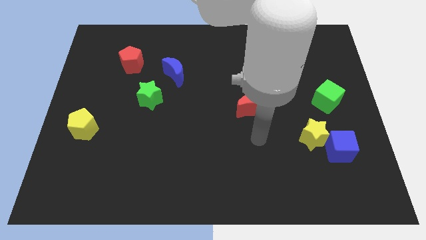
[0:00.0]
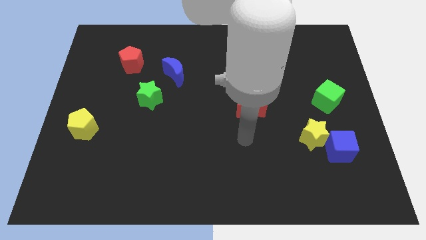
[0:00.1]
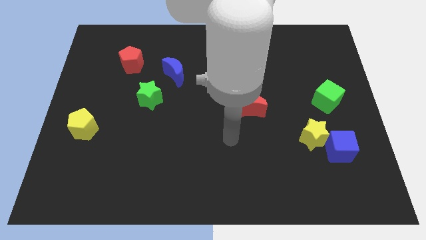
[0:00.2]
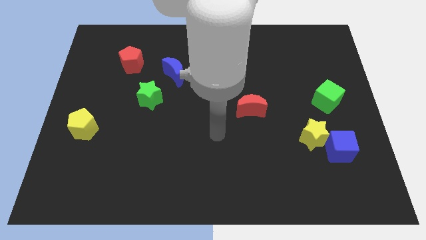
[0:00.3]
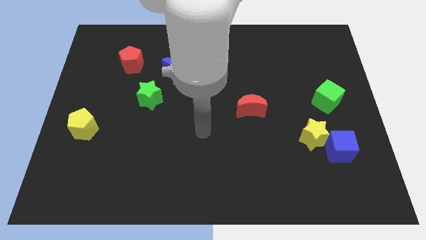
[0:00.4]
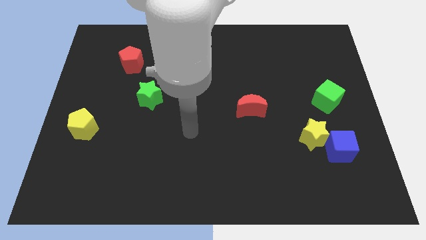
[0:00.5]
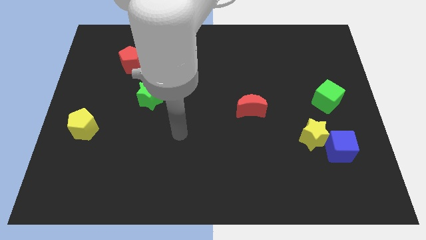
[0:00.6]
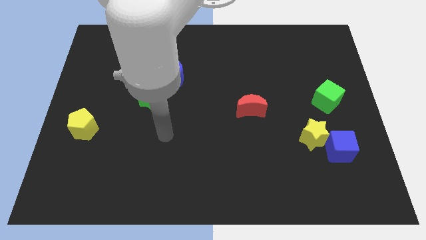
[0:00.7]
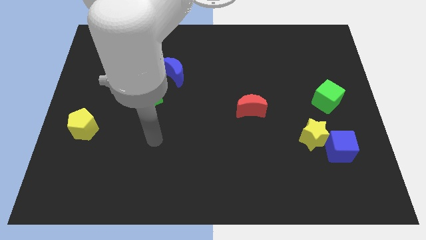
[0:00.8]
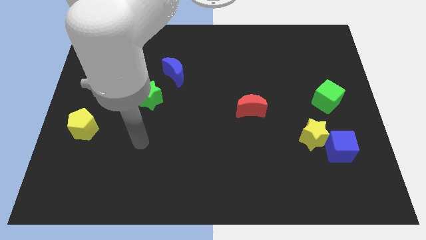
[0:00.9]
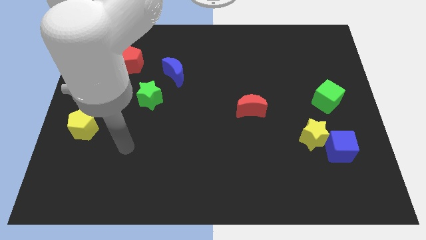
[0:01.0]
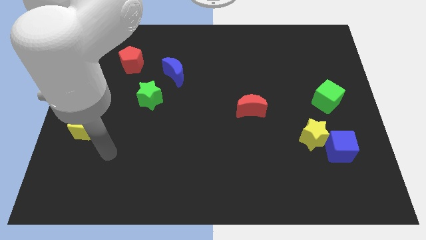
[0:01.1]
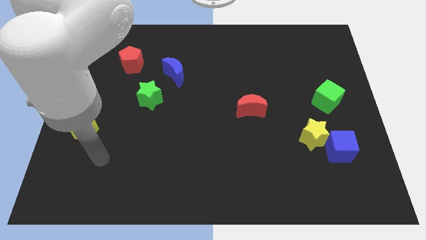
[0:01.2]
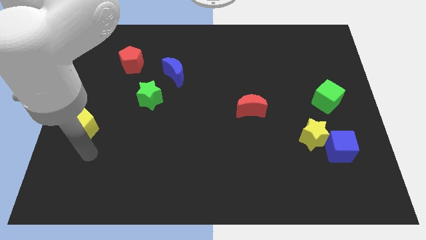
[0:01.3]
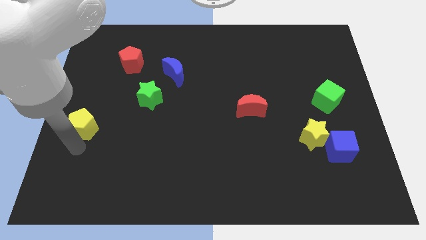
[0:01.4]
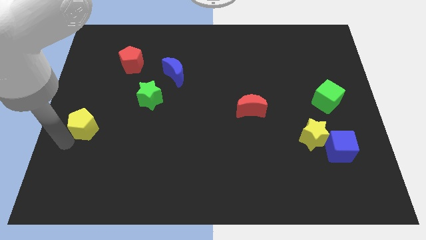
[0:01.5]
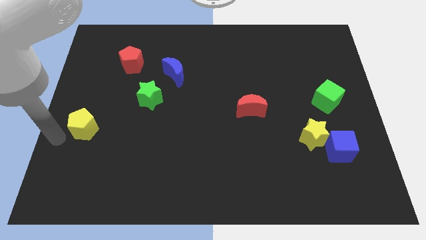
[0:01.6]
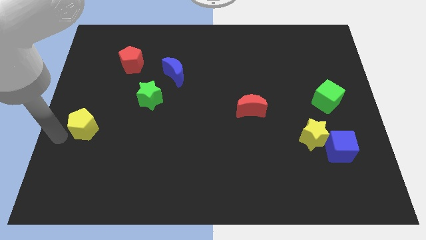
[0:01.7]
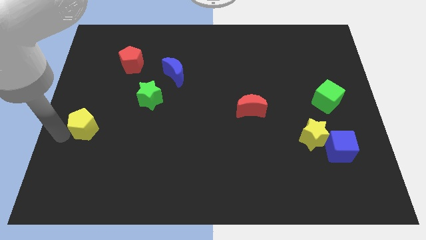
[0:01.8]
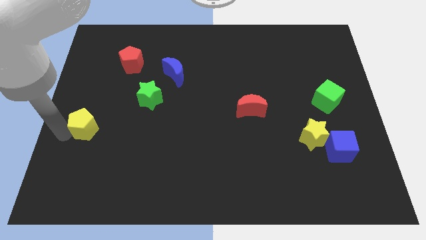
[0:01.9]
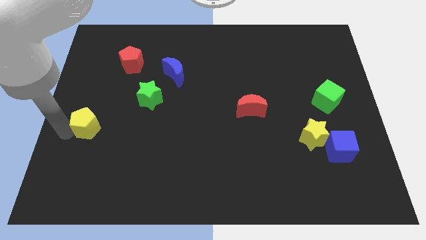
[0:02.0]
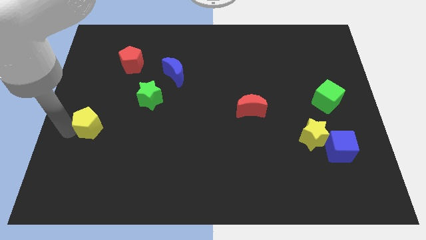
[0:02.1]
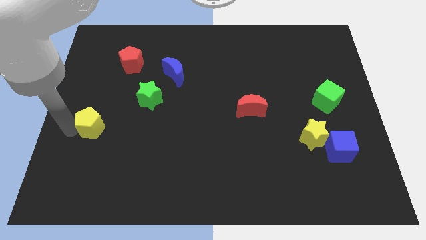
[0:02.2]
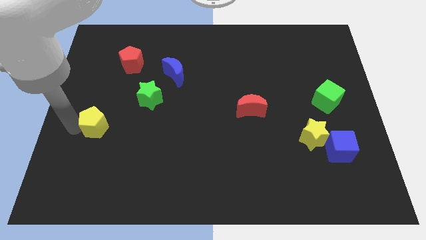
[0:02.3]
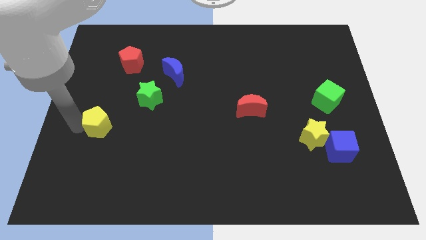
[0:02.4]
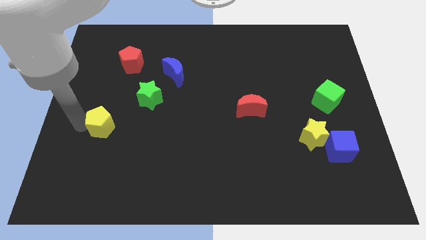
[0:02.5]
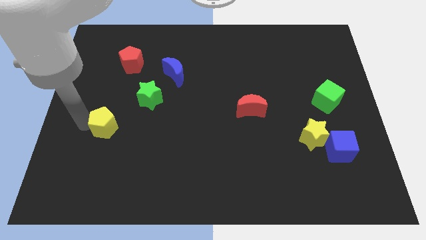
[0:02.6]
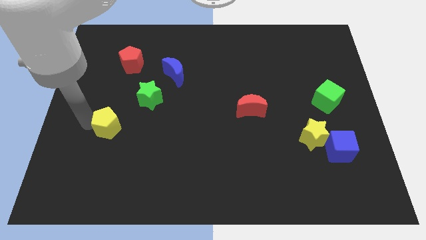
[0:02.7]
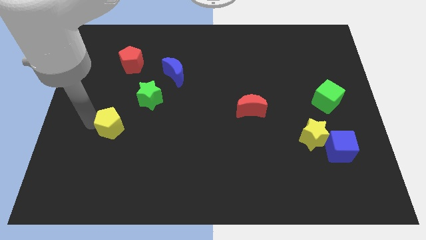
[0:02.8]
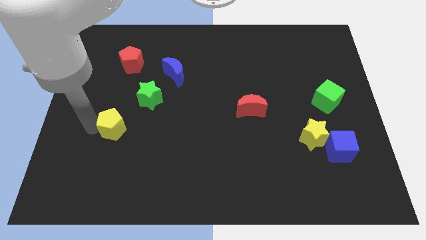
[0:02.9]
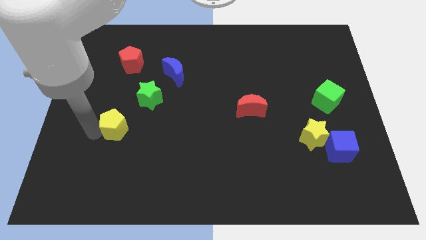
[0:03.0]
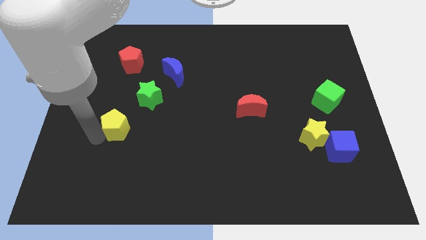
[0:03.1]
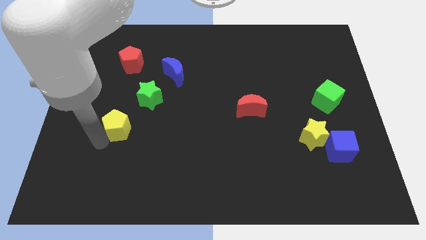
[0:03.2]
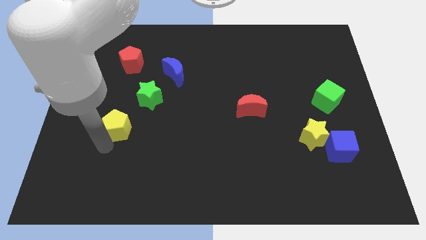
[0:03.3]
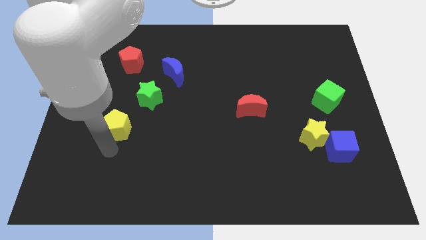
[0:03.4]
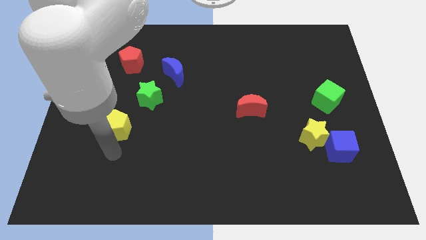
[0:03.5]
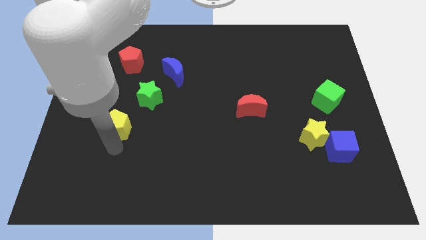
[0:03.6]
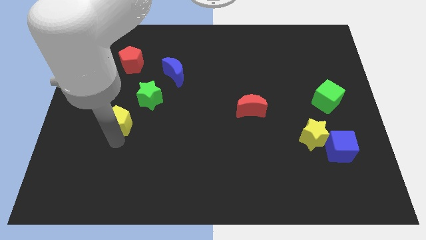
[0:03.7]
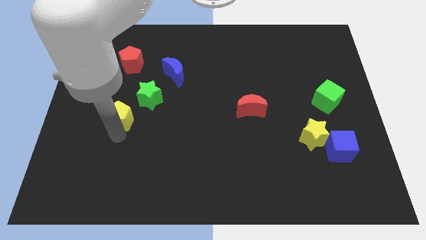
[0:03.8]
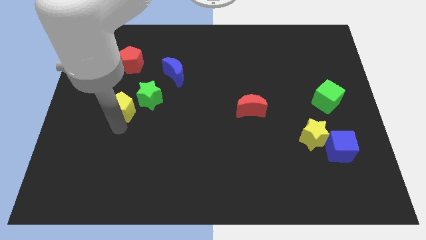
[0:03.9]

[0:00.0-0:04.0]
push the yellow pentagon upwards and to the right diagonally somewhat

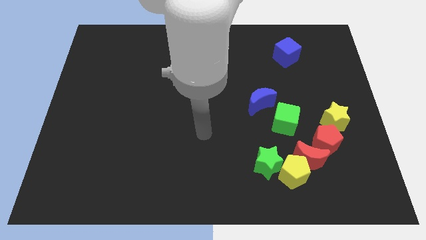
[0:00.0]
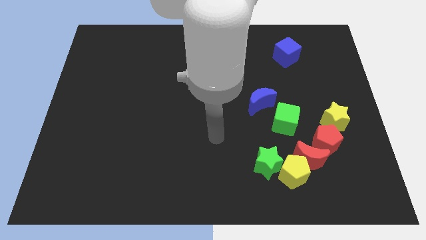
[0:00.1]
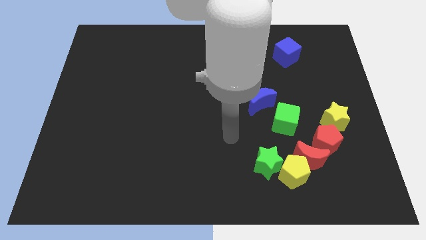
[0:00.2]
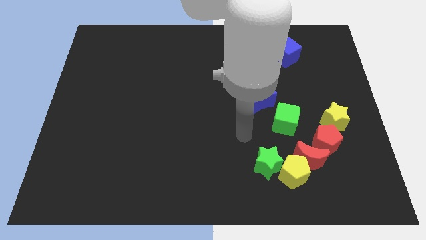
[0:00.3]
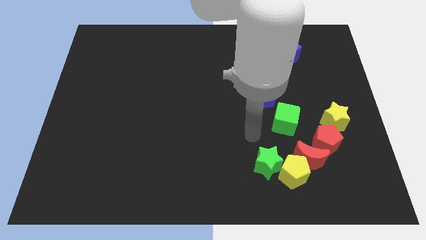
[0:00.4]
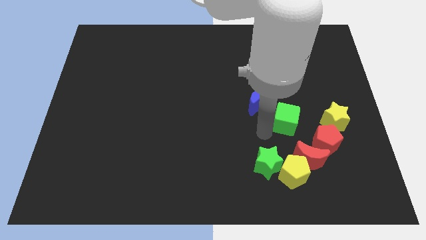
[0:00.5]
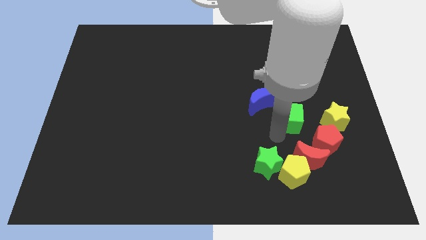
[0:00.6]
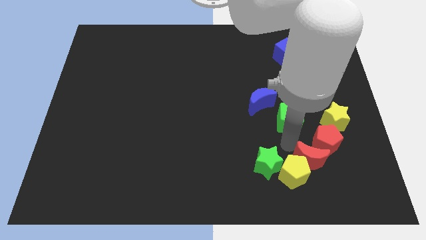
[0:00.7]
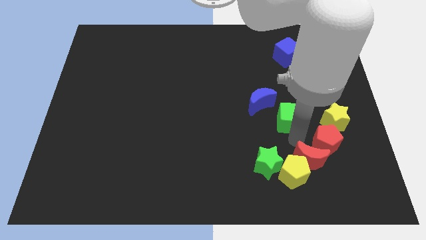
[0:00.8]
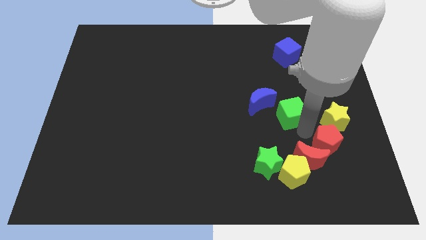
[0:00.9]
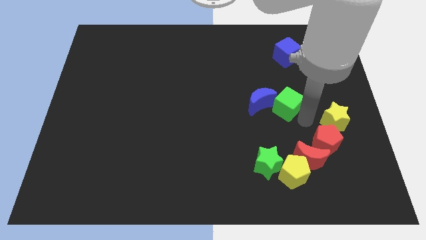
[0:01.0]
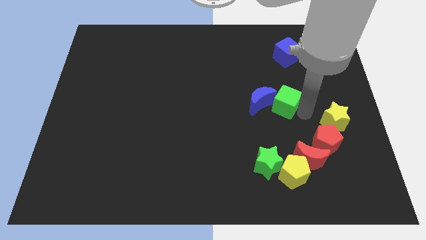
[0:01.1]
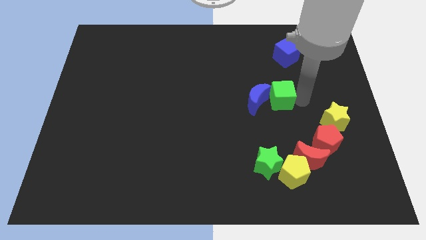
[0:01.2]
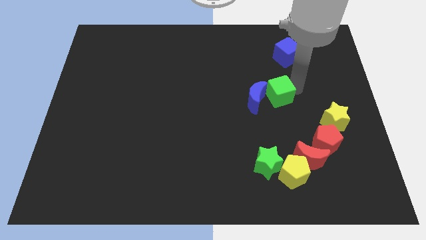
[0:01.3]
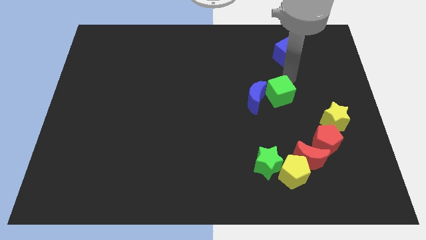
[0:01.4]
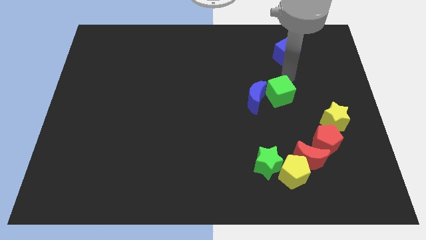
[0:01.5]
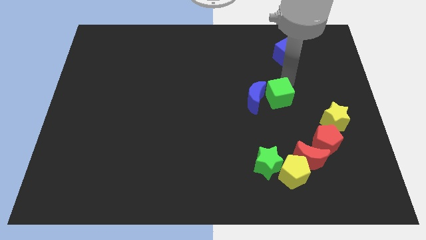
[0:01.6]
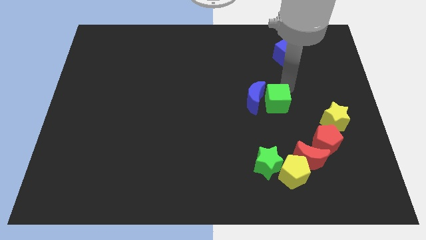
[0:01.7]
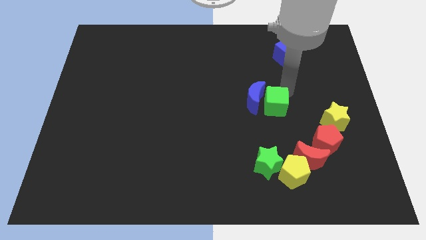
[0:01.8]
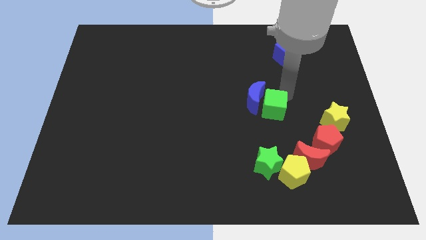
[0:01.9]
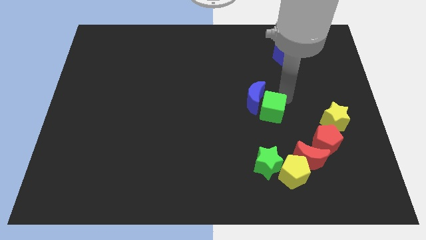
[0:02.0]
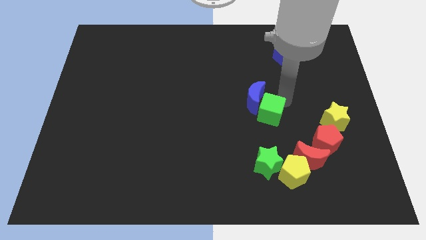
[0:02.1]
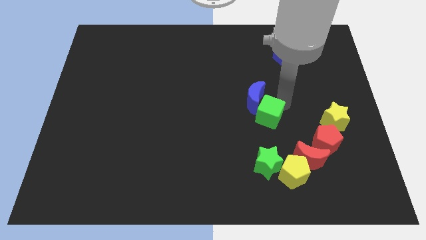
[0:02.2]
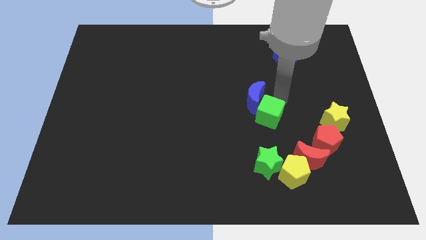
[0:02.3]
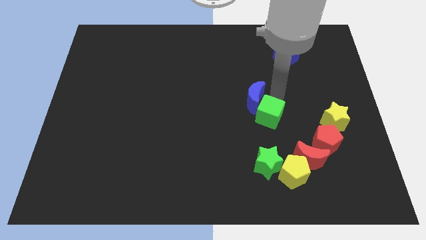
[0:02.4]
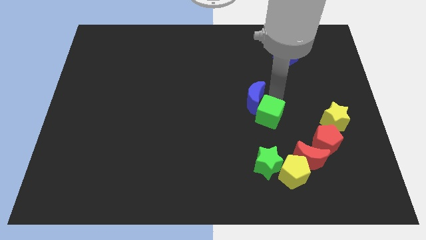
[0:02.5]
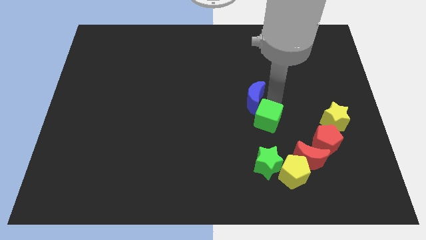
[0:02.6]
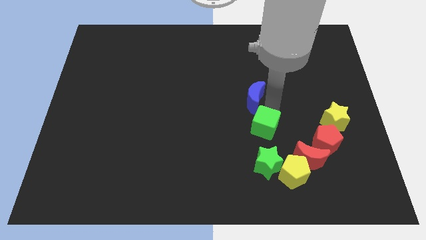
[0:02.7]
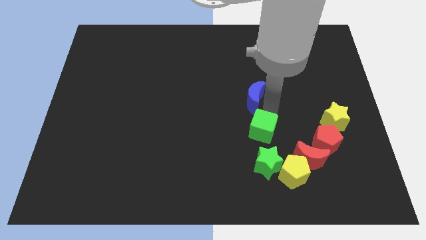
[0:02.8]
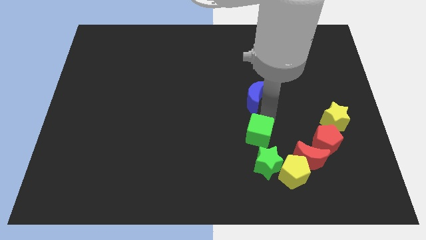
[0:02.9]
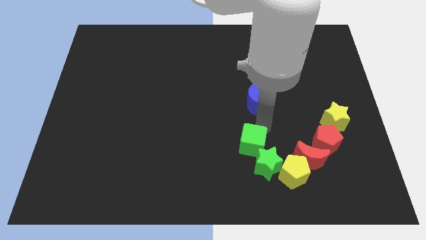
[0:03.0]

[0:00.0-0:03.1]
slide the green cube downwards and left diagonally a little bit

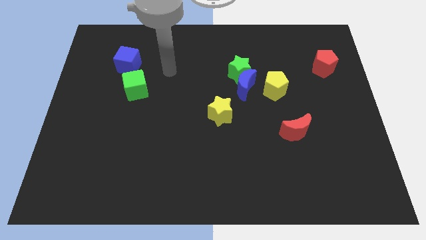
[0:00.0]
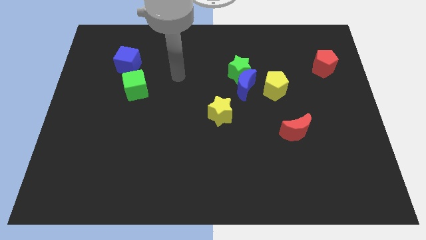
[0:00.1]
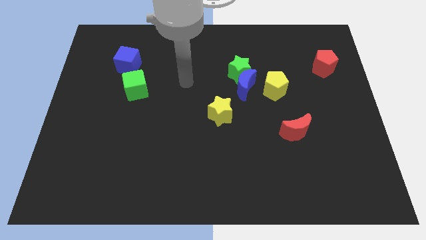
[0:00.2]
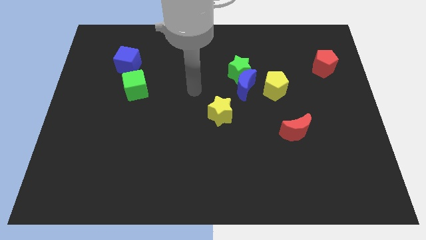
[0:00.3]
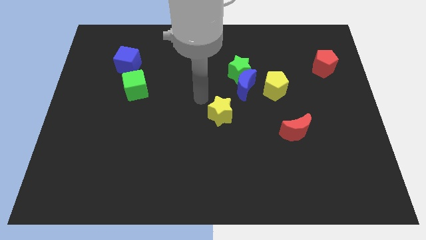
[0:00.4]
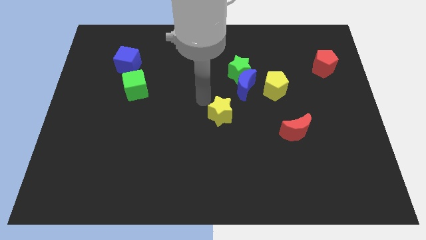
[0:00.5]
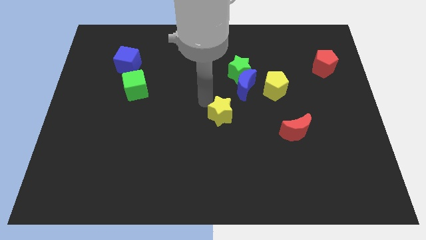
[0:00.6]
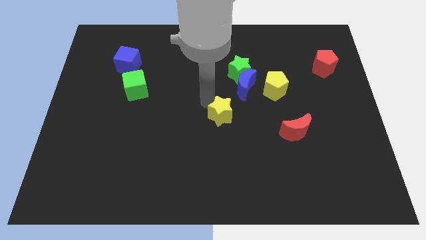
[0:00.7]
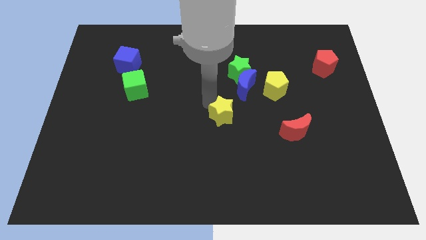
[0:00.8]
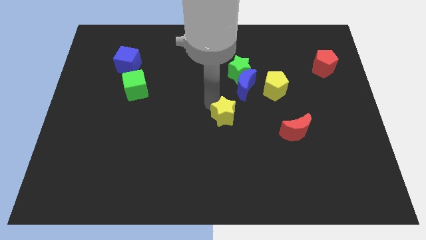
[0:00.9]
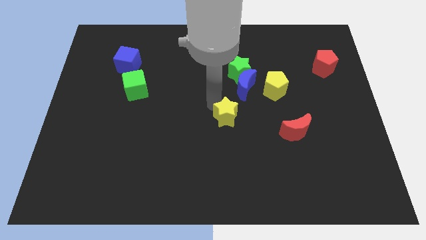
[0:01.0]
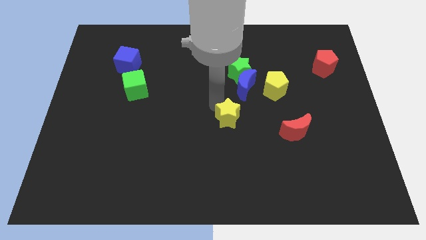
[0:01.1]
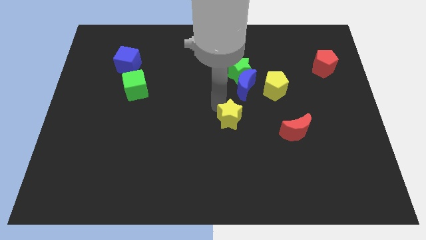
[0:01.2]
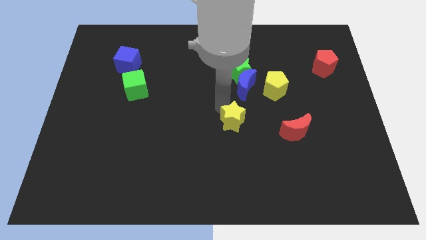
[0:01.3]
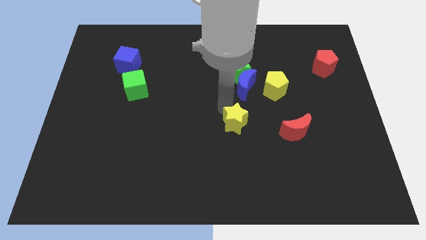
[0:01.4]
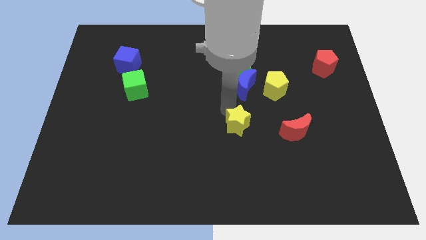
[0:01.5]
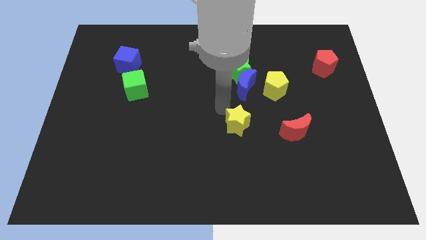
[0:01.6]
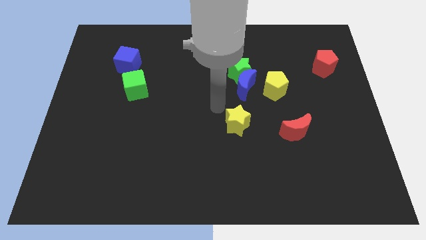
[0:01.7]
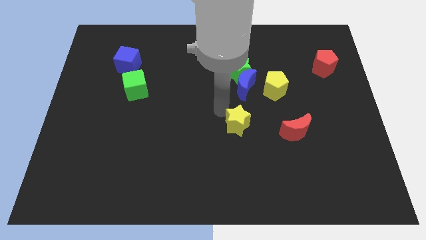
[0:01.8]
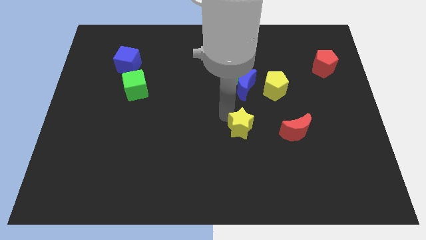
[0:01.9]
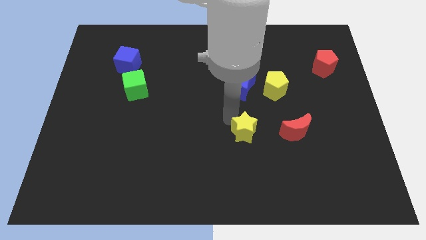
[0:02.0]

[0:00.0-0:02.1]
slightly push the yellow star downwards and right diagonally
